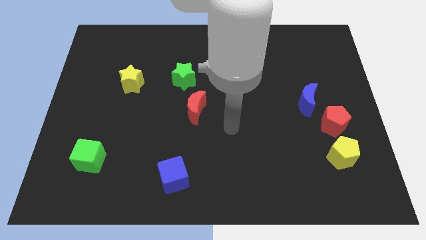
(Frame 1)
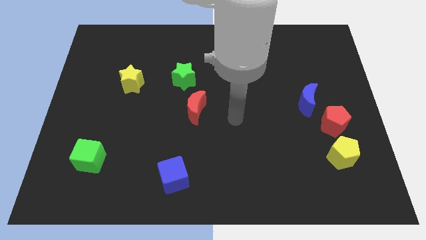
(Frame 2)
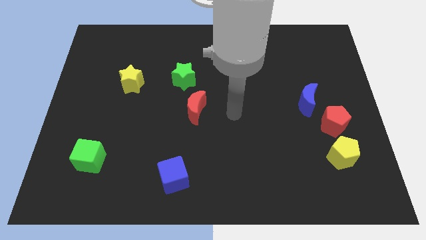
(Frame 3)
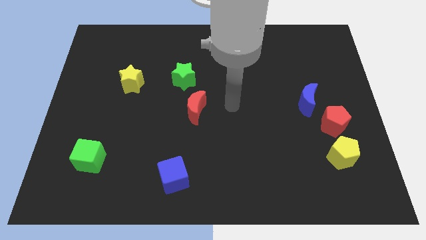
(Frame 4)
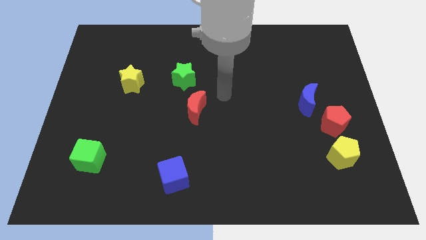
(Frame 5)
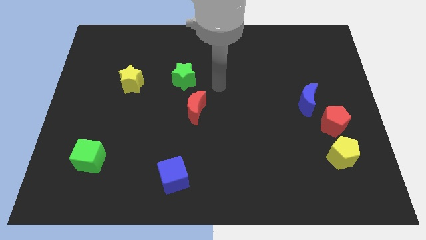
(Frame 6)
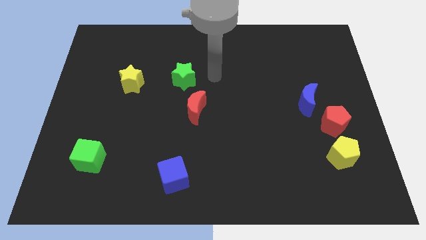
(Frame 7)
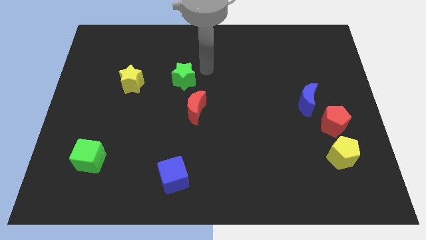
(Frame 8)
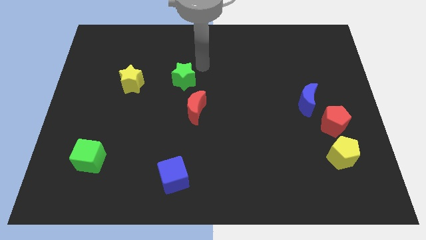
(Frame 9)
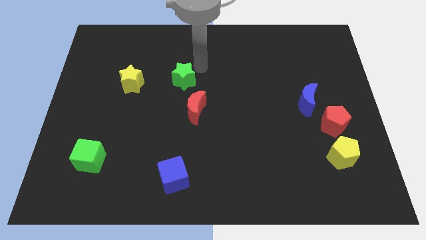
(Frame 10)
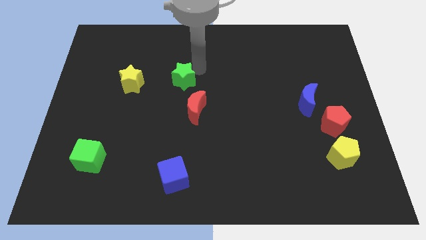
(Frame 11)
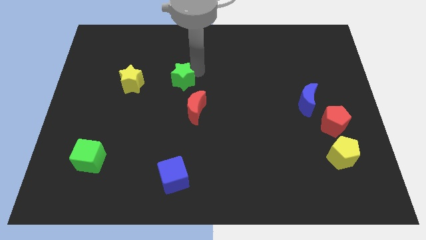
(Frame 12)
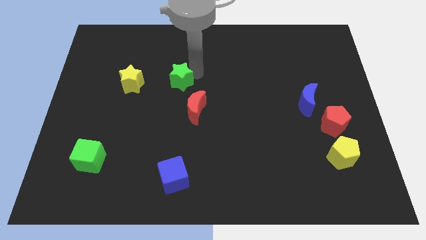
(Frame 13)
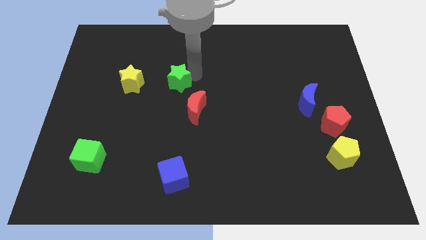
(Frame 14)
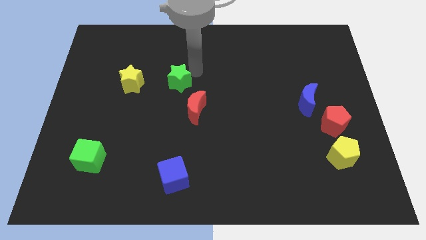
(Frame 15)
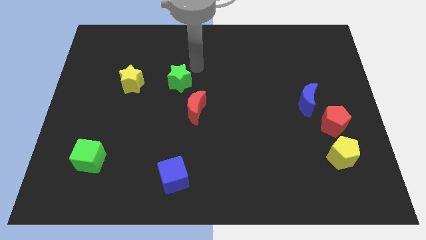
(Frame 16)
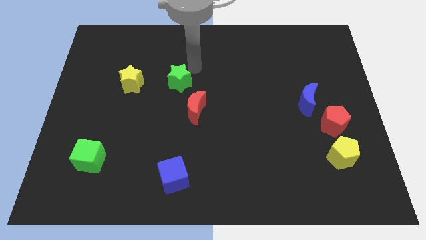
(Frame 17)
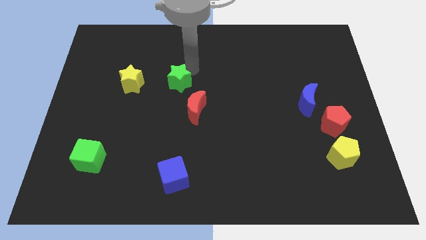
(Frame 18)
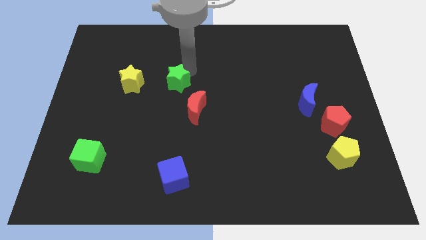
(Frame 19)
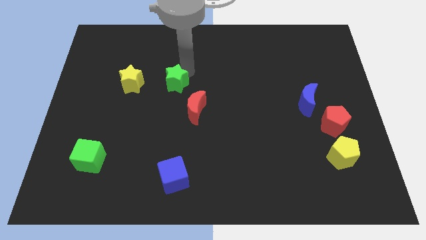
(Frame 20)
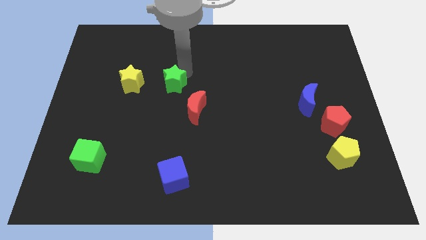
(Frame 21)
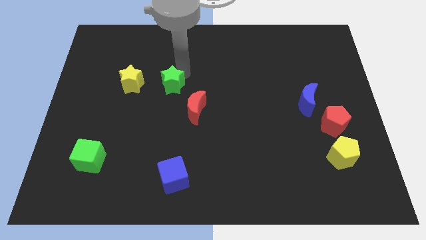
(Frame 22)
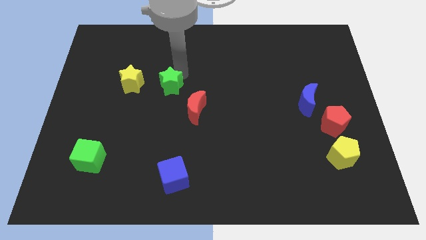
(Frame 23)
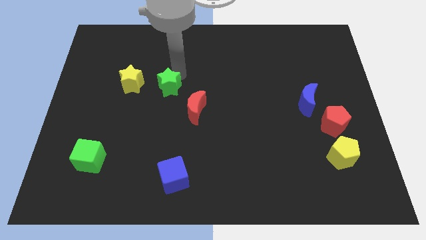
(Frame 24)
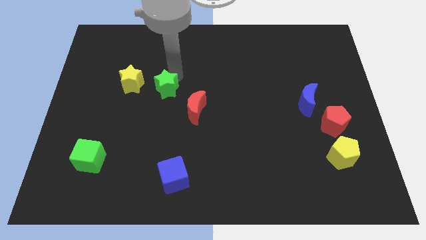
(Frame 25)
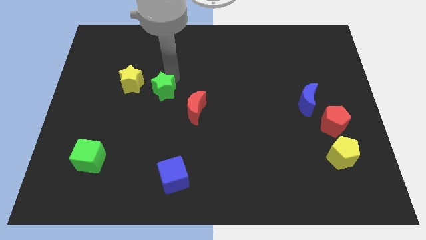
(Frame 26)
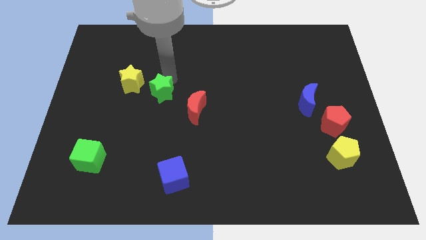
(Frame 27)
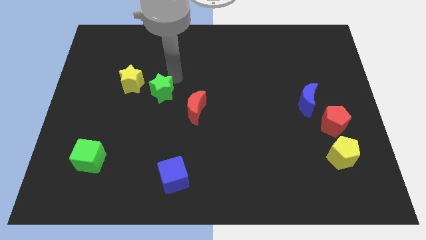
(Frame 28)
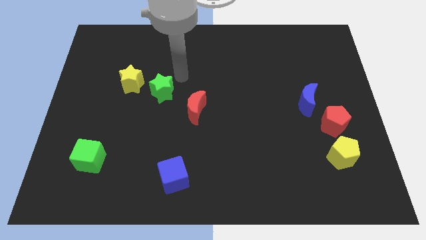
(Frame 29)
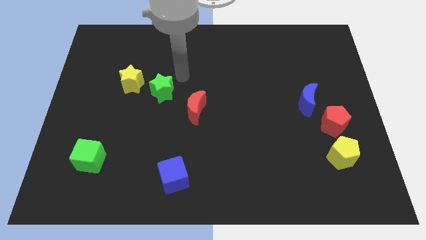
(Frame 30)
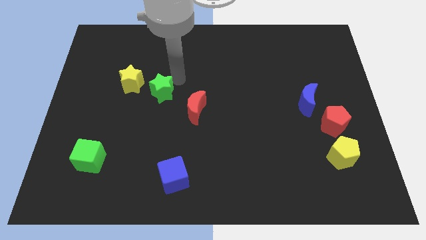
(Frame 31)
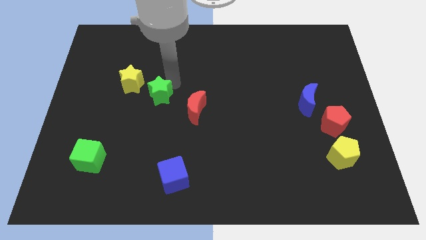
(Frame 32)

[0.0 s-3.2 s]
slightly push the green star downwards and then left

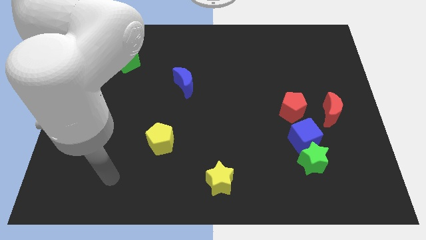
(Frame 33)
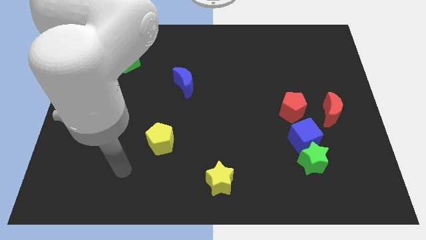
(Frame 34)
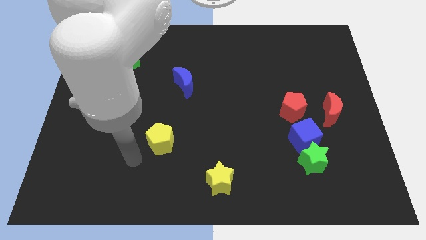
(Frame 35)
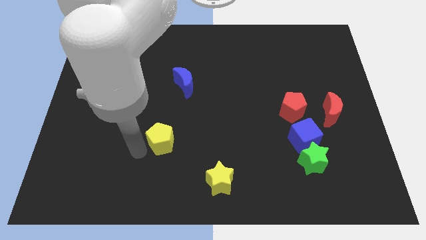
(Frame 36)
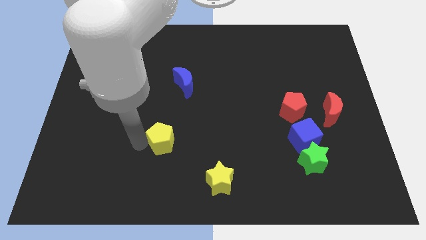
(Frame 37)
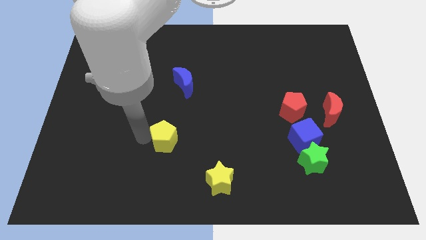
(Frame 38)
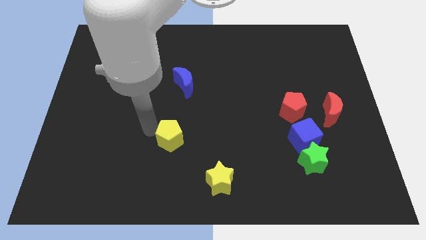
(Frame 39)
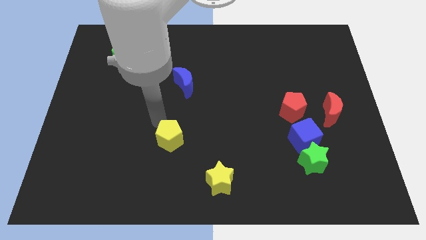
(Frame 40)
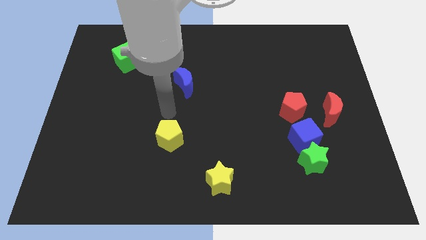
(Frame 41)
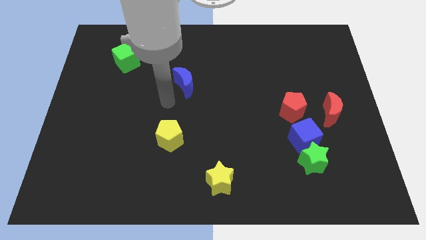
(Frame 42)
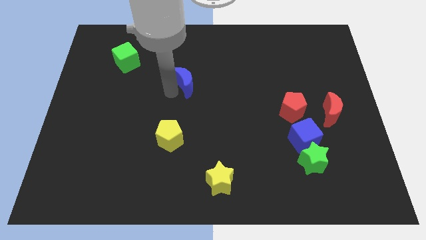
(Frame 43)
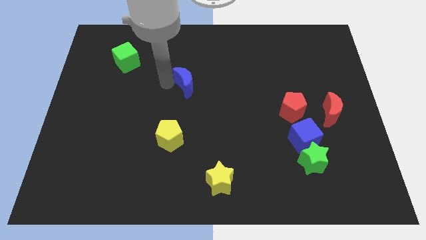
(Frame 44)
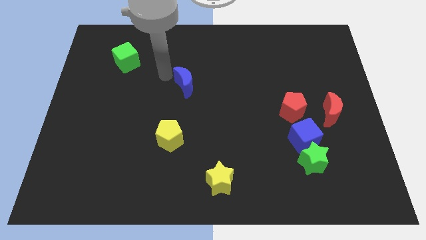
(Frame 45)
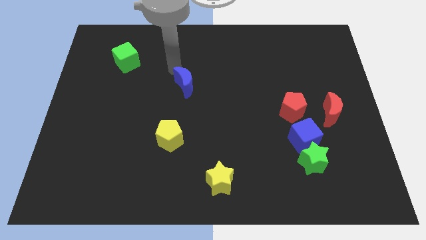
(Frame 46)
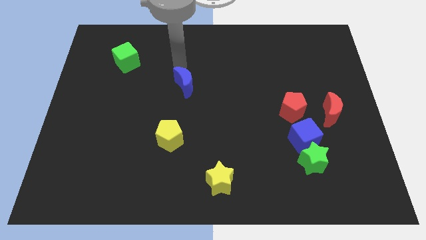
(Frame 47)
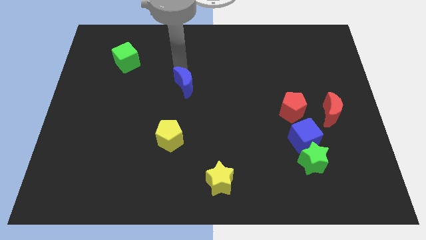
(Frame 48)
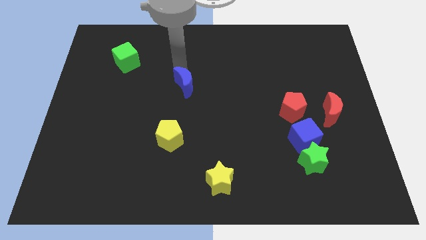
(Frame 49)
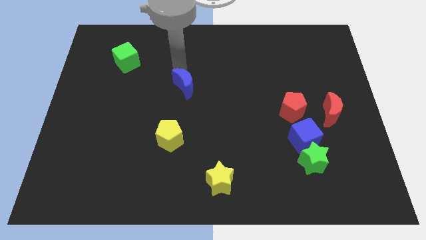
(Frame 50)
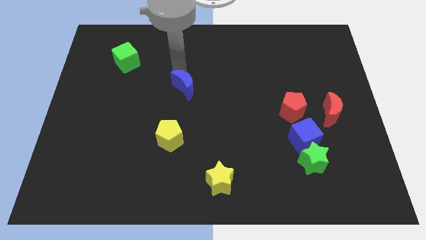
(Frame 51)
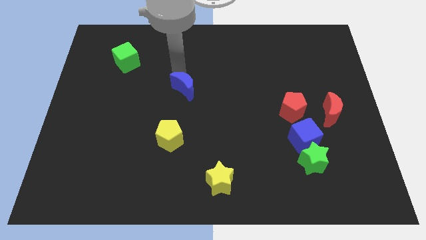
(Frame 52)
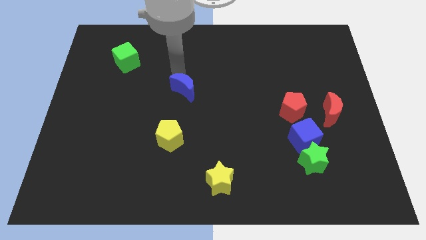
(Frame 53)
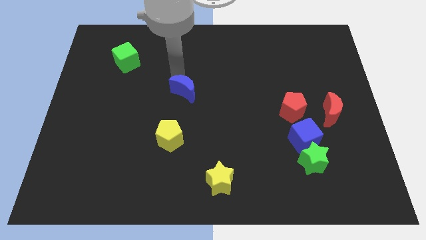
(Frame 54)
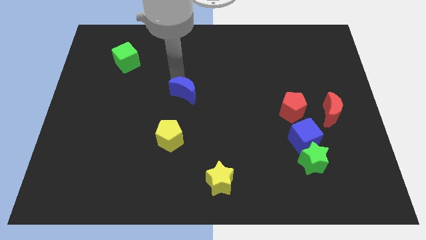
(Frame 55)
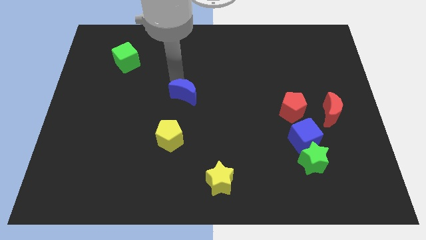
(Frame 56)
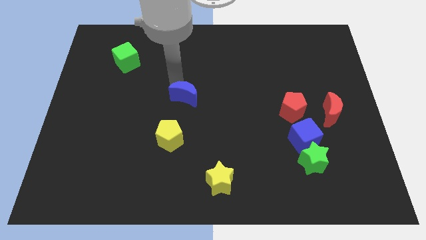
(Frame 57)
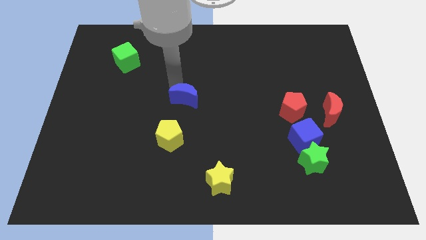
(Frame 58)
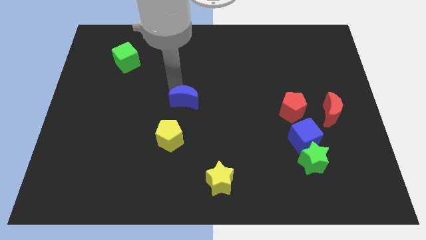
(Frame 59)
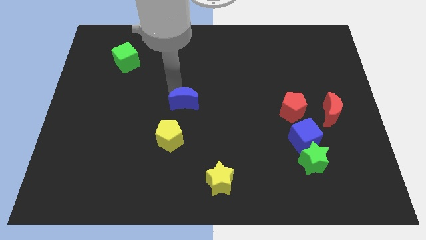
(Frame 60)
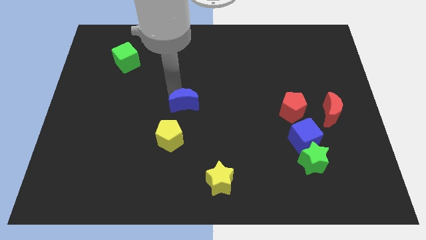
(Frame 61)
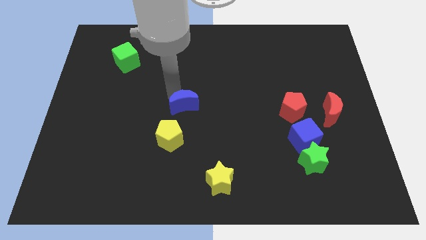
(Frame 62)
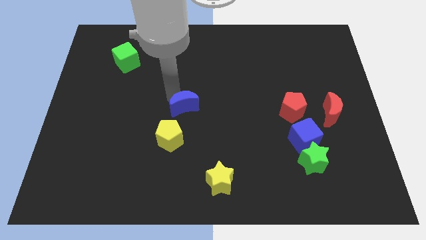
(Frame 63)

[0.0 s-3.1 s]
move the blue moon down a bit

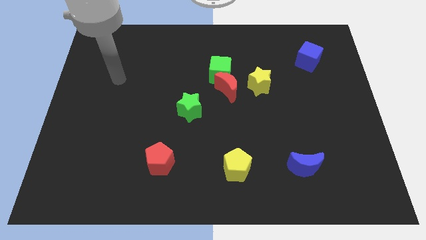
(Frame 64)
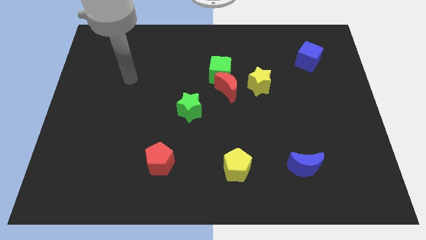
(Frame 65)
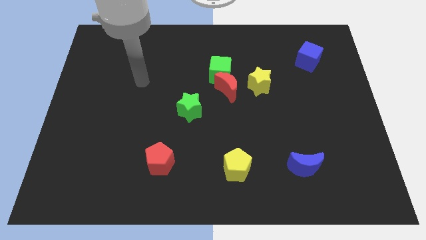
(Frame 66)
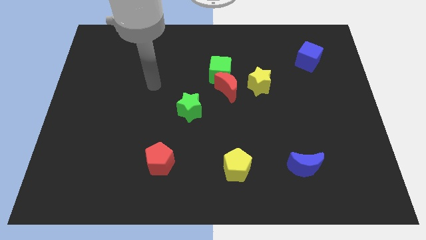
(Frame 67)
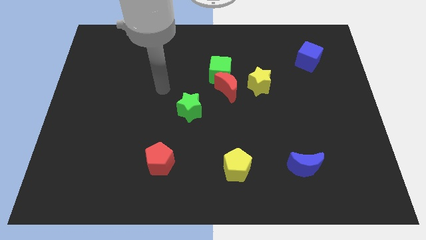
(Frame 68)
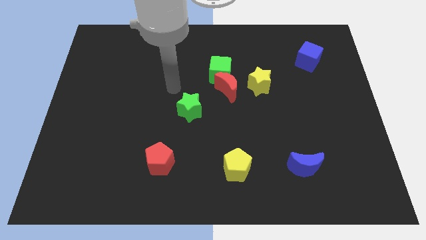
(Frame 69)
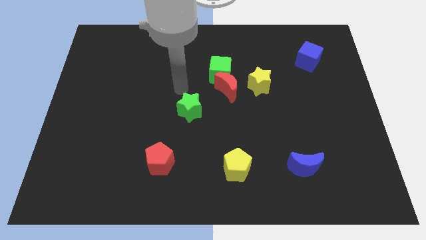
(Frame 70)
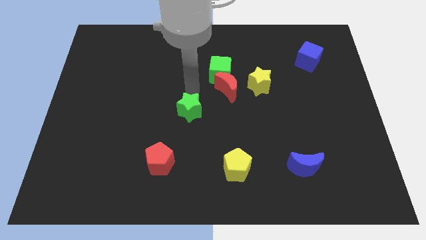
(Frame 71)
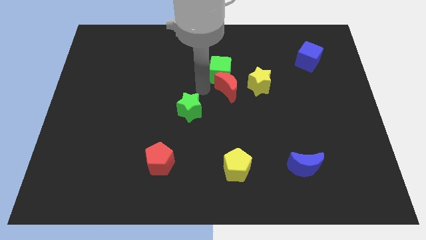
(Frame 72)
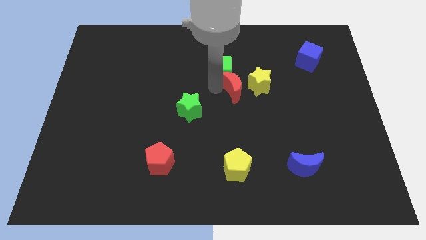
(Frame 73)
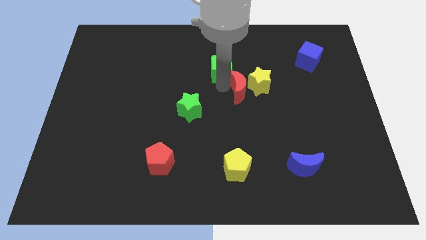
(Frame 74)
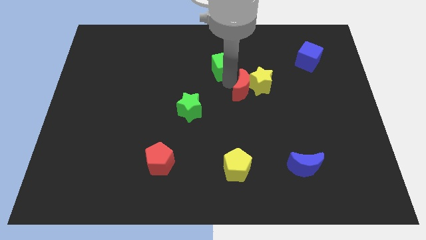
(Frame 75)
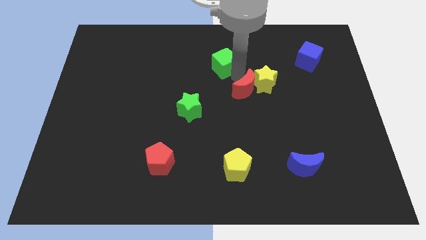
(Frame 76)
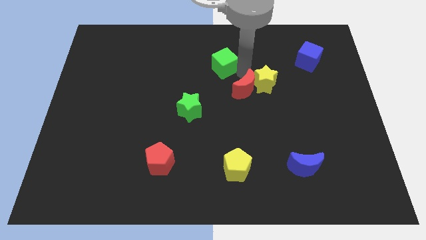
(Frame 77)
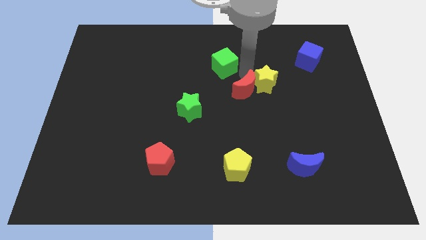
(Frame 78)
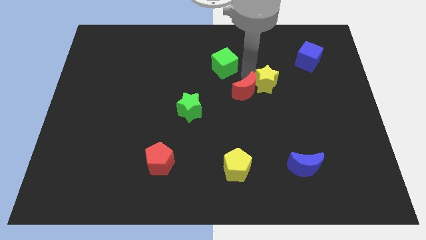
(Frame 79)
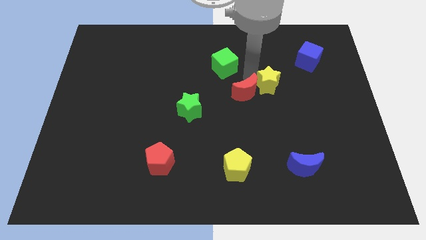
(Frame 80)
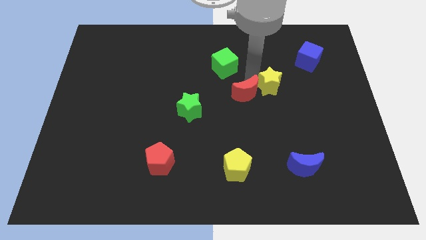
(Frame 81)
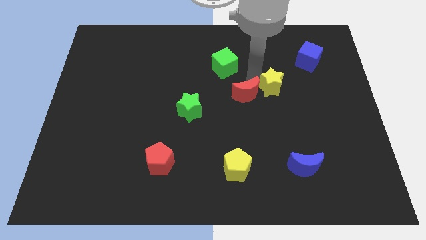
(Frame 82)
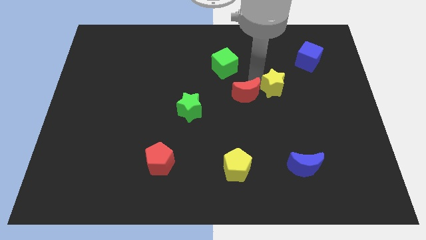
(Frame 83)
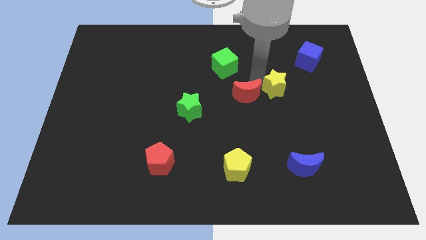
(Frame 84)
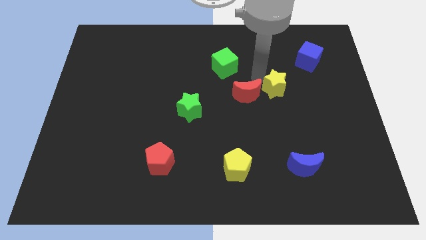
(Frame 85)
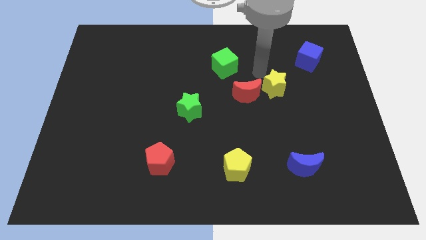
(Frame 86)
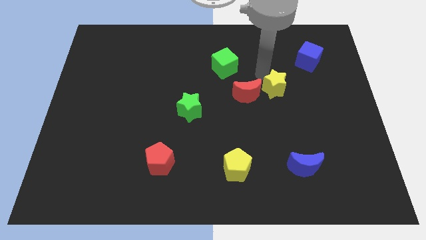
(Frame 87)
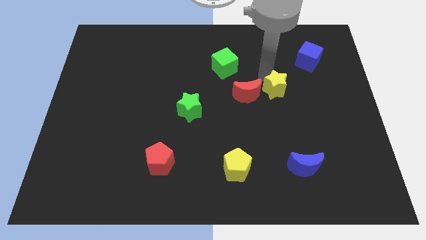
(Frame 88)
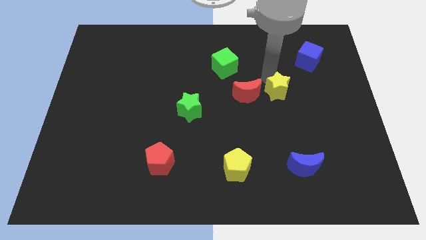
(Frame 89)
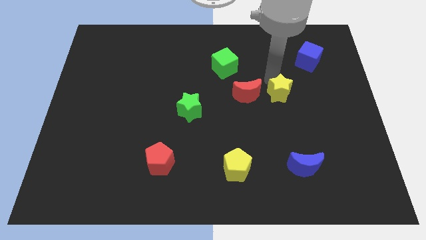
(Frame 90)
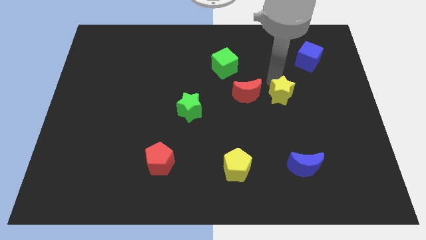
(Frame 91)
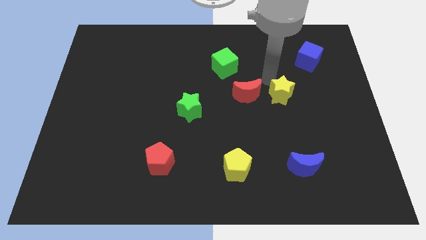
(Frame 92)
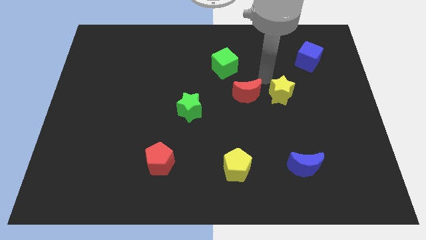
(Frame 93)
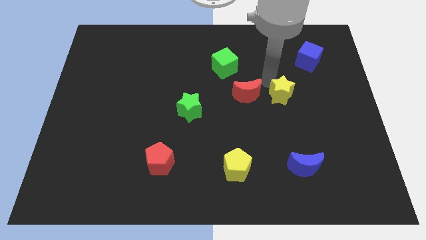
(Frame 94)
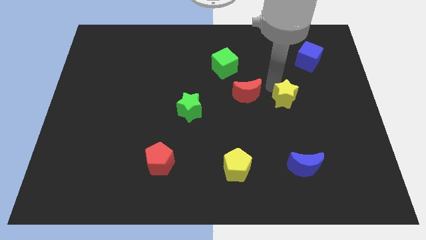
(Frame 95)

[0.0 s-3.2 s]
push the yellow star down and then right a bit
